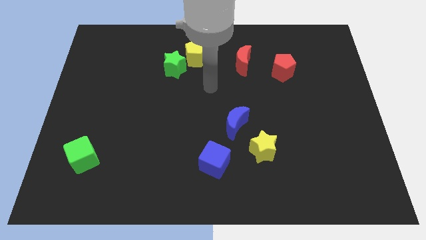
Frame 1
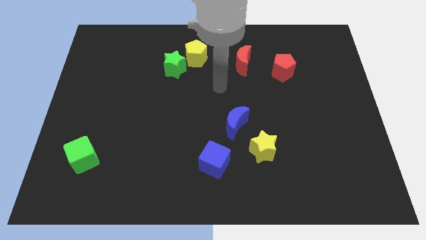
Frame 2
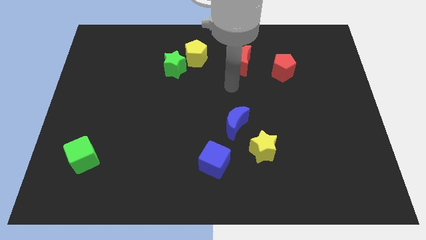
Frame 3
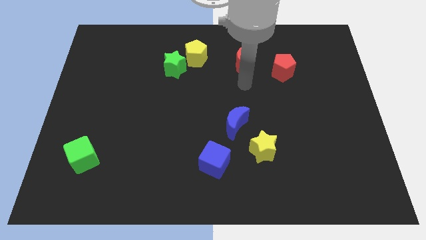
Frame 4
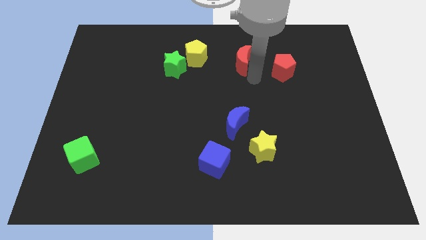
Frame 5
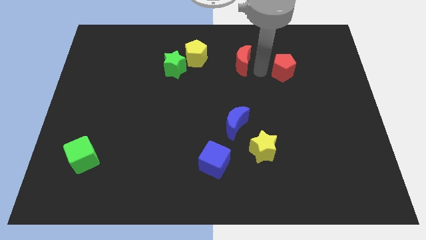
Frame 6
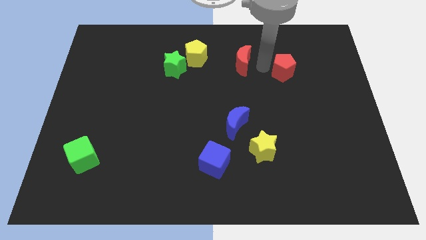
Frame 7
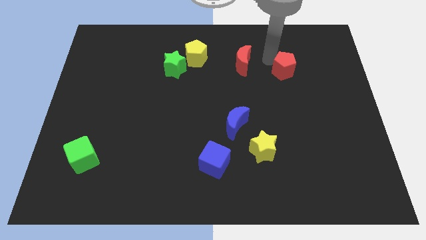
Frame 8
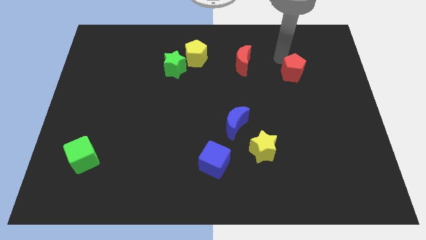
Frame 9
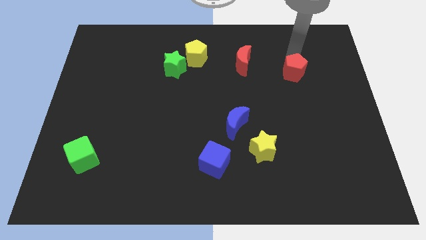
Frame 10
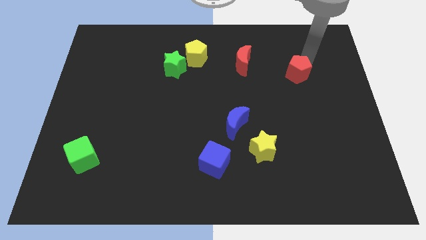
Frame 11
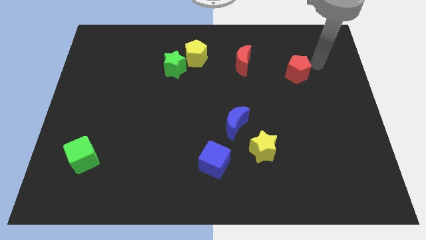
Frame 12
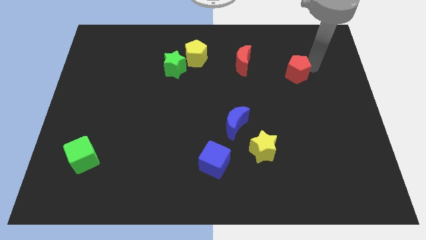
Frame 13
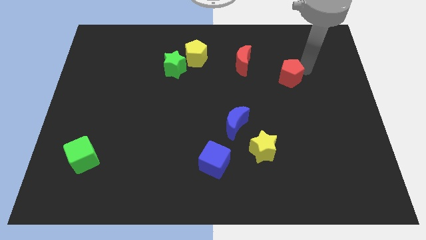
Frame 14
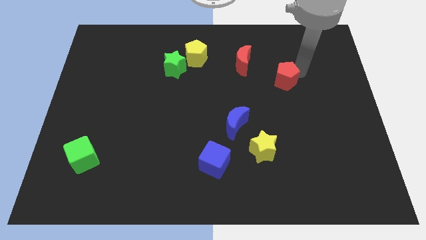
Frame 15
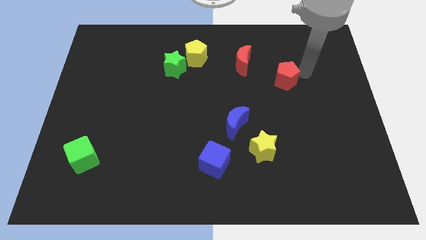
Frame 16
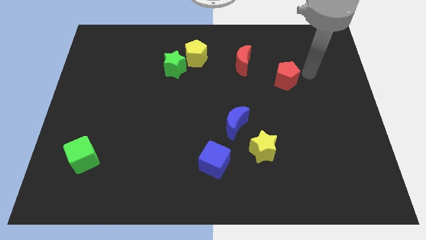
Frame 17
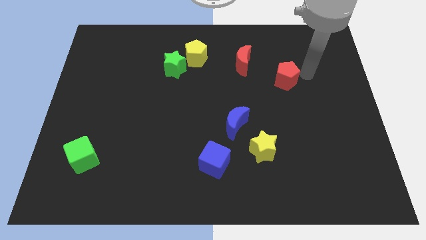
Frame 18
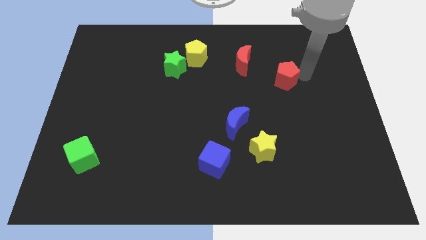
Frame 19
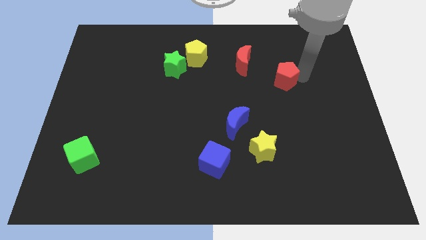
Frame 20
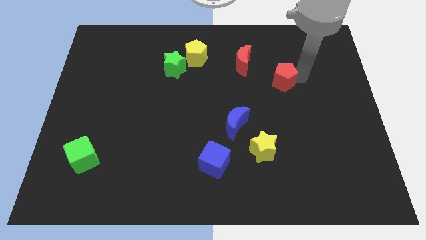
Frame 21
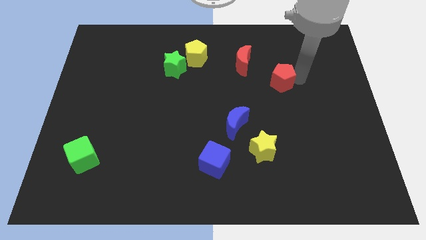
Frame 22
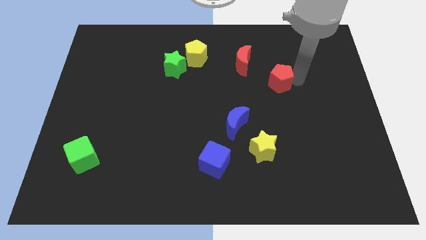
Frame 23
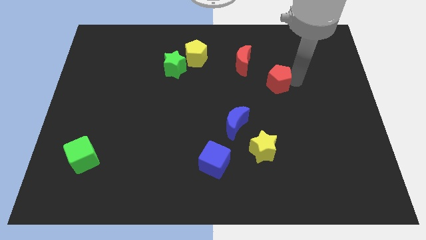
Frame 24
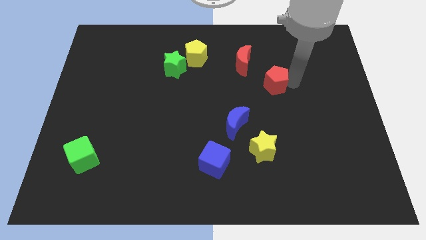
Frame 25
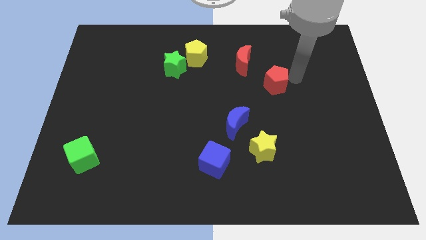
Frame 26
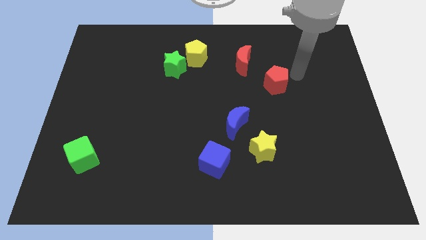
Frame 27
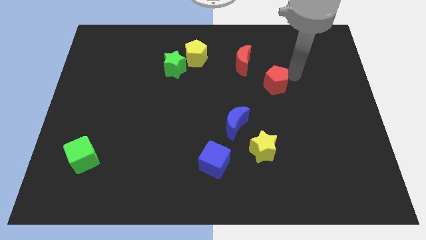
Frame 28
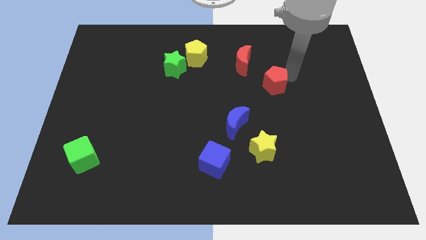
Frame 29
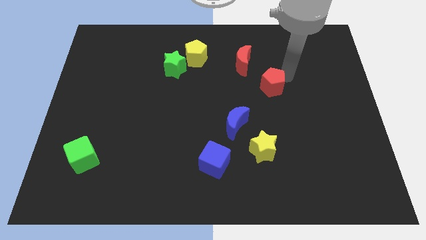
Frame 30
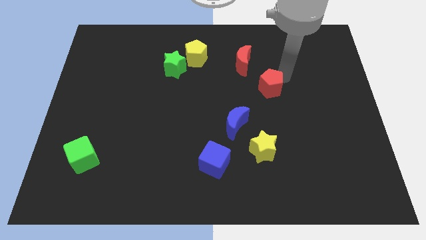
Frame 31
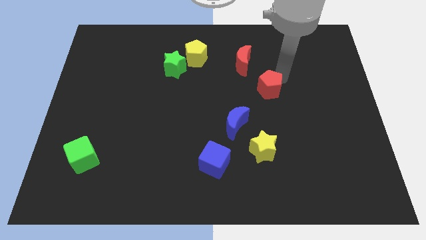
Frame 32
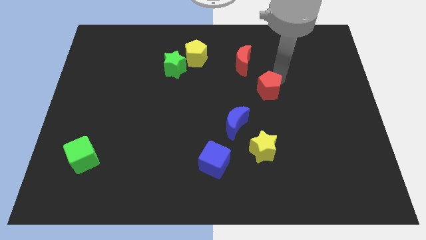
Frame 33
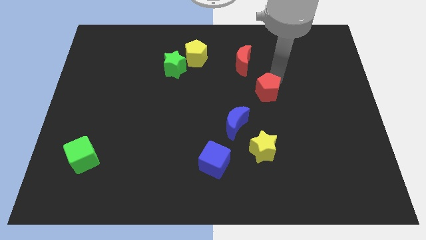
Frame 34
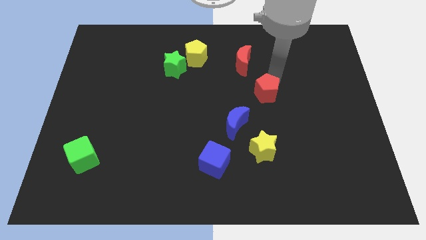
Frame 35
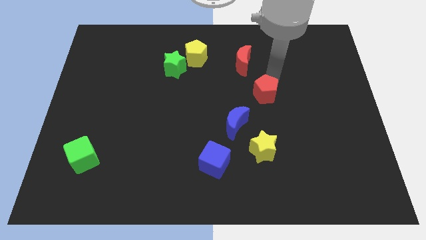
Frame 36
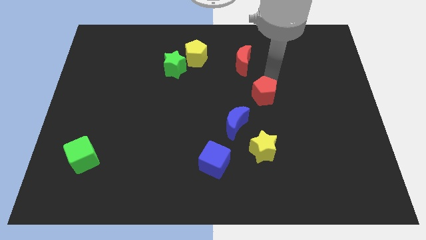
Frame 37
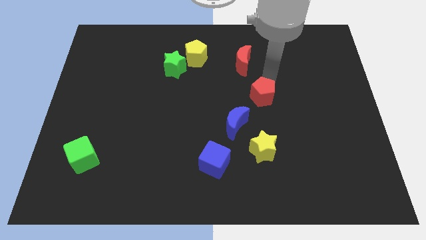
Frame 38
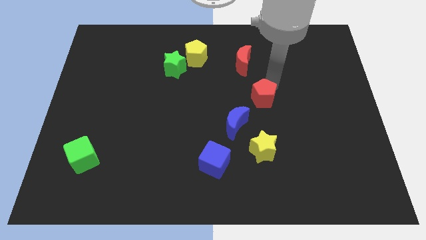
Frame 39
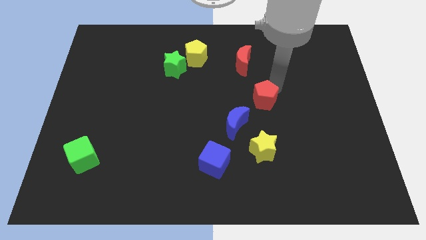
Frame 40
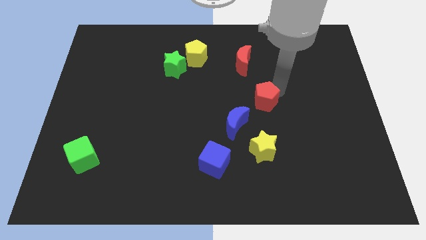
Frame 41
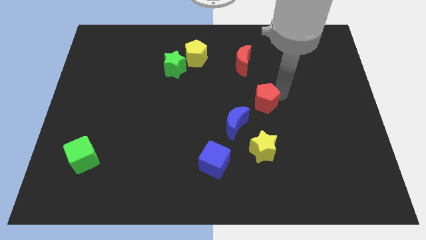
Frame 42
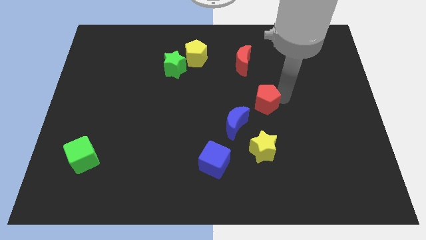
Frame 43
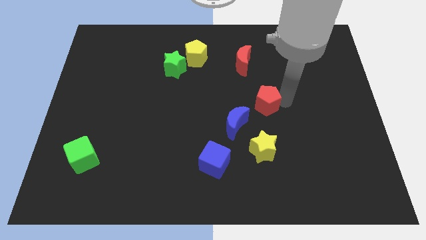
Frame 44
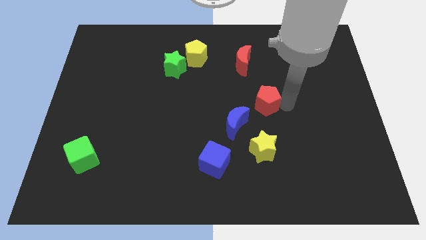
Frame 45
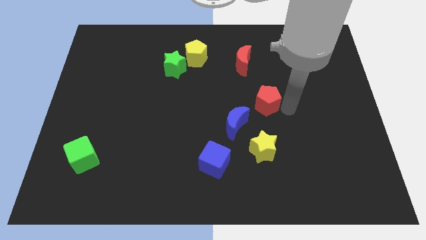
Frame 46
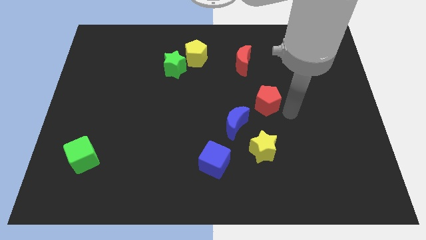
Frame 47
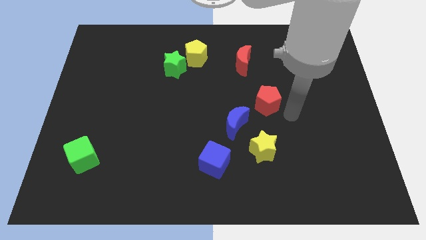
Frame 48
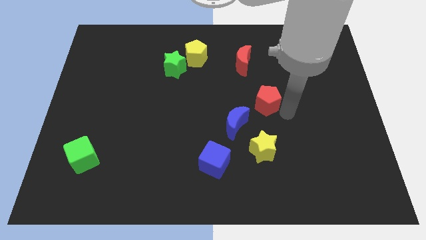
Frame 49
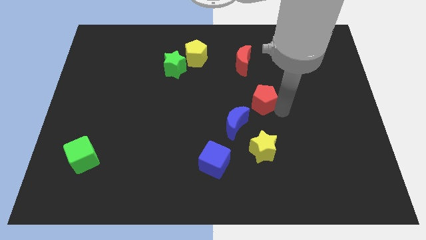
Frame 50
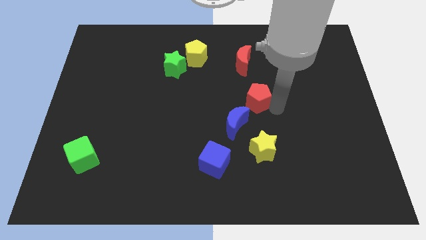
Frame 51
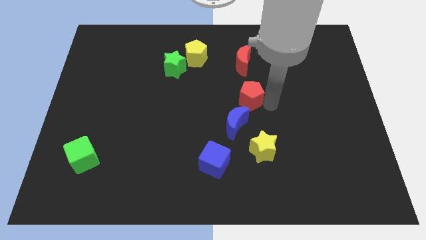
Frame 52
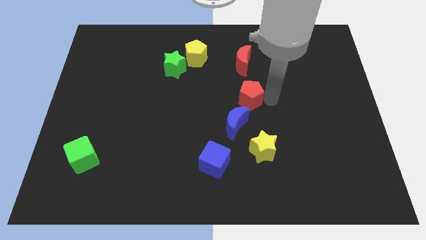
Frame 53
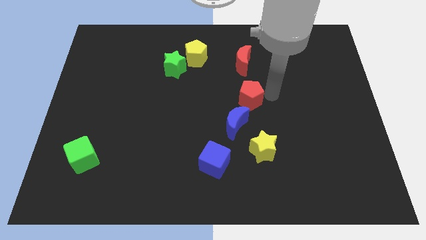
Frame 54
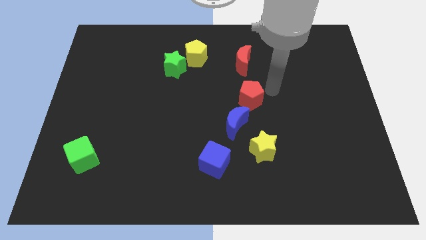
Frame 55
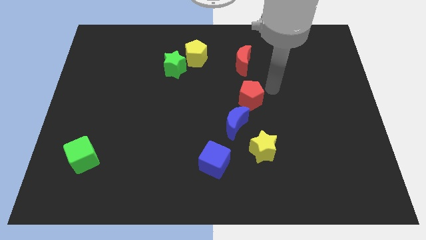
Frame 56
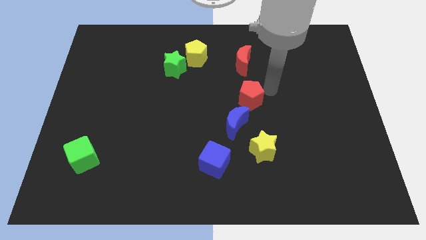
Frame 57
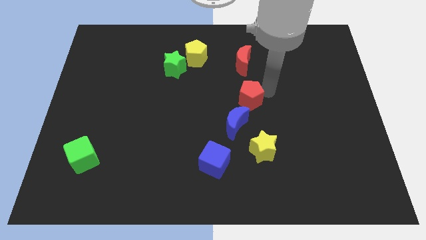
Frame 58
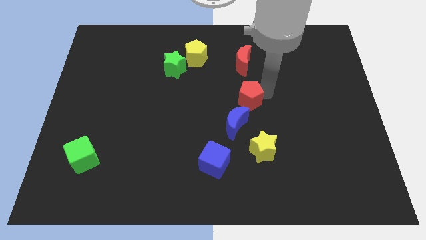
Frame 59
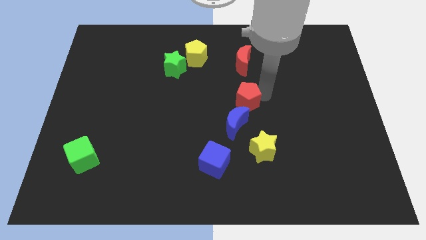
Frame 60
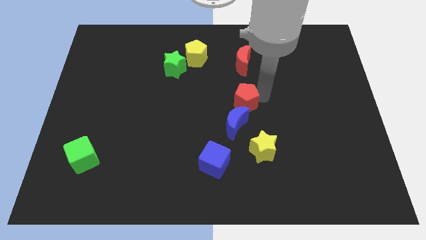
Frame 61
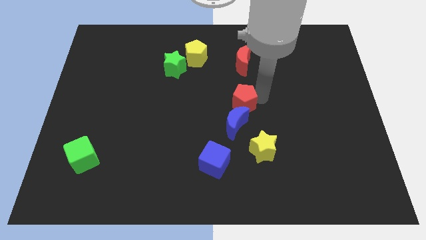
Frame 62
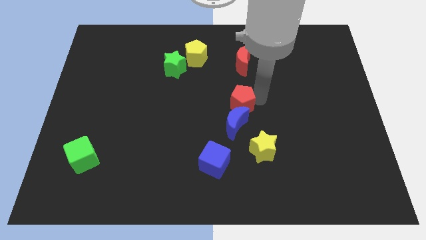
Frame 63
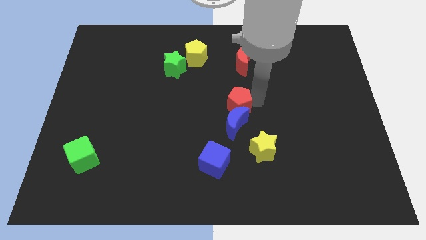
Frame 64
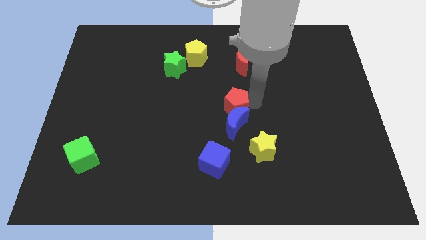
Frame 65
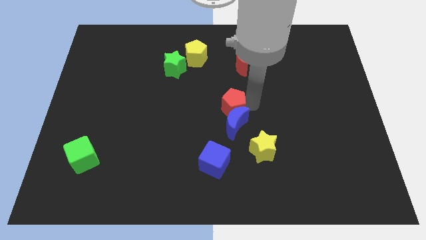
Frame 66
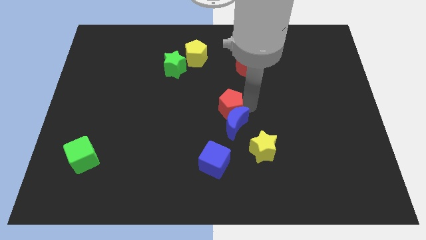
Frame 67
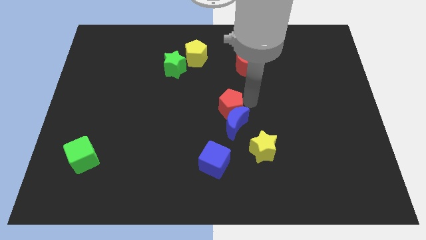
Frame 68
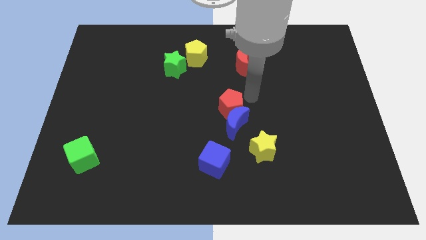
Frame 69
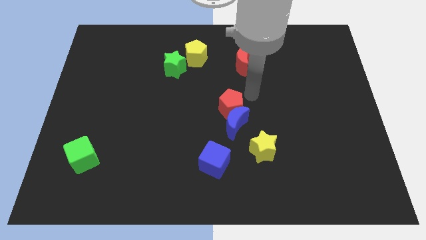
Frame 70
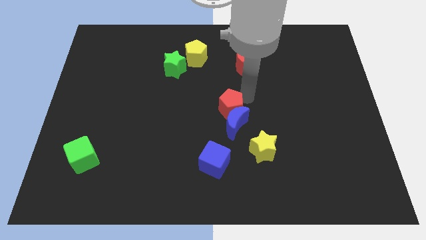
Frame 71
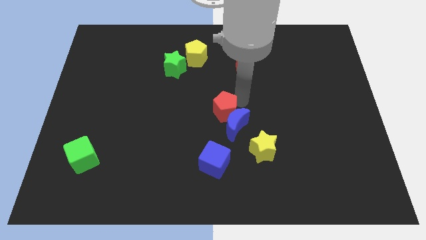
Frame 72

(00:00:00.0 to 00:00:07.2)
push the red pentagon diagonally down and left

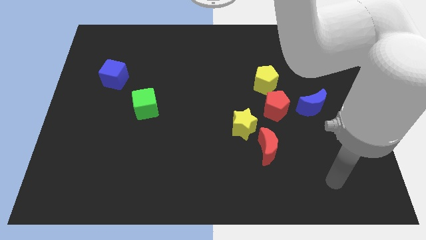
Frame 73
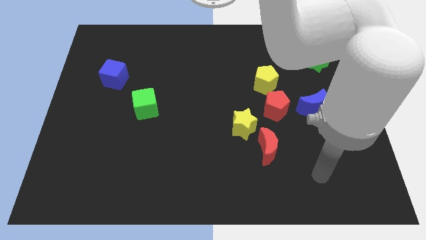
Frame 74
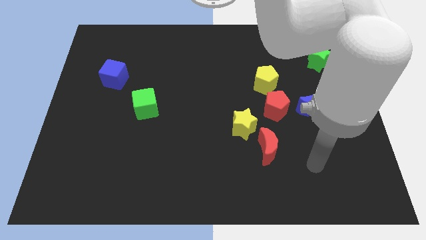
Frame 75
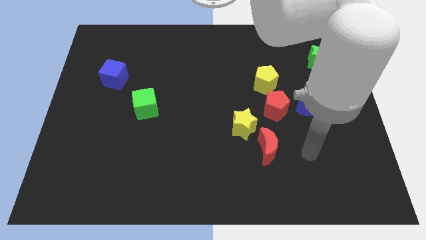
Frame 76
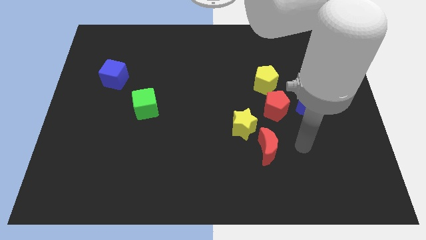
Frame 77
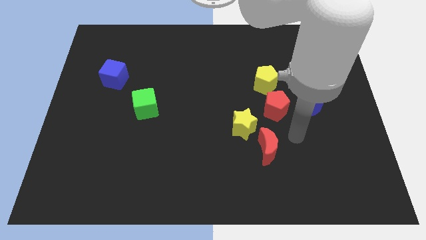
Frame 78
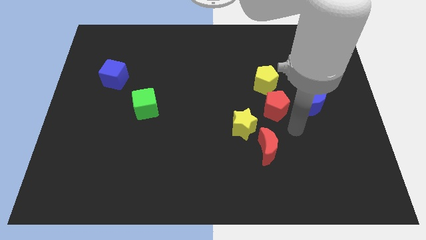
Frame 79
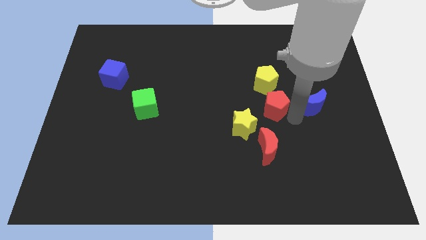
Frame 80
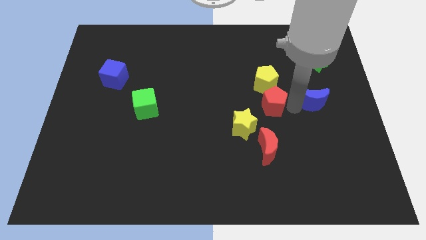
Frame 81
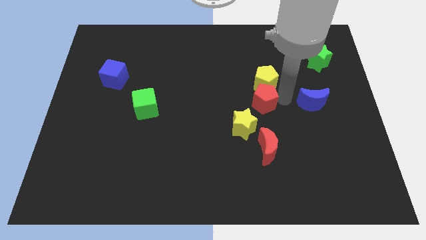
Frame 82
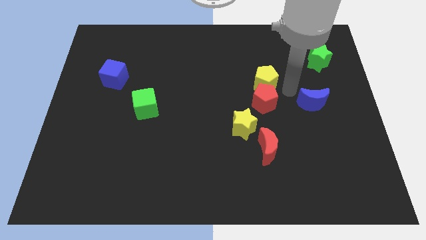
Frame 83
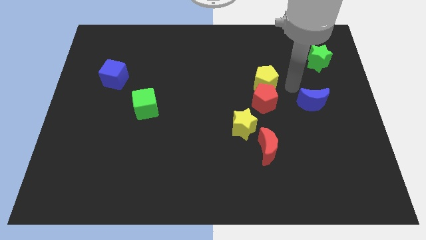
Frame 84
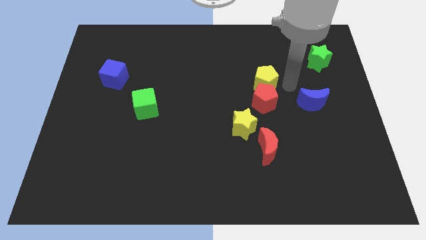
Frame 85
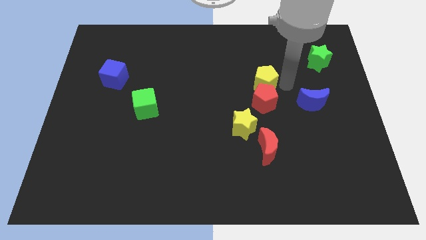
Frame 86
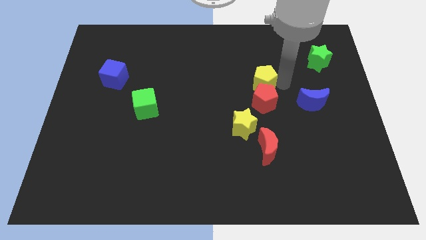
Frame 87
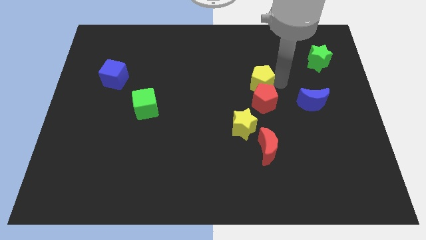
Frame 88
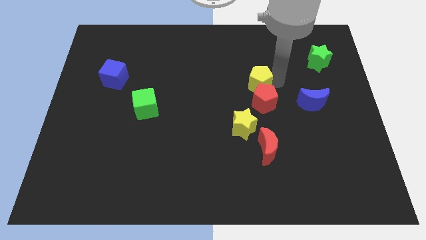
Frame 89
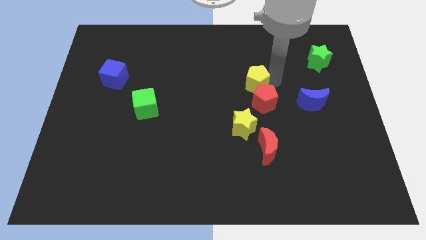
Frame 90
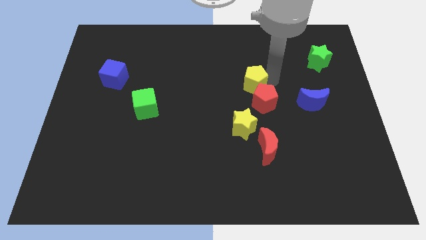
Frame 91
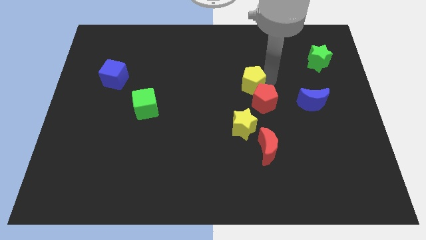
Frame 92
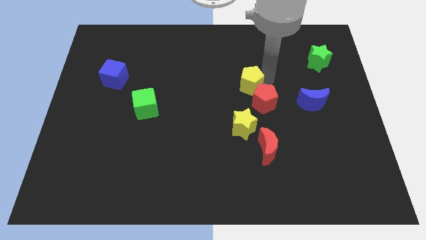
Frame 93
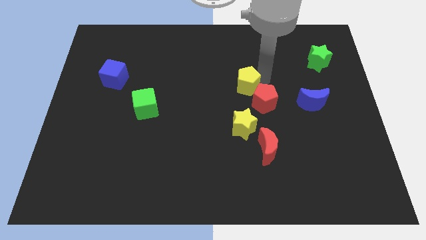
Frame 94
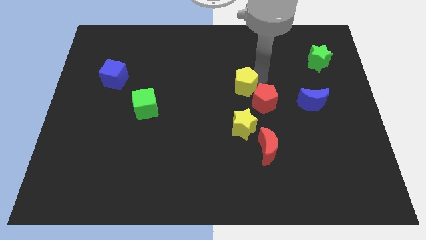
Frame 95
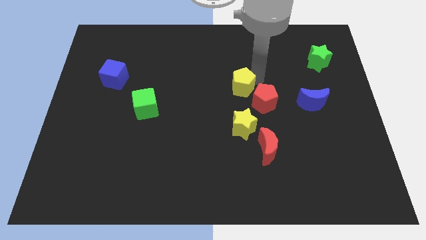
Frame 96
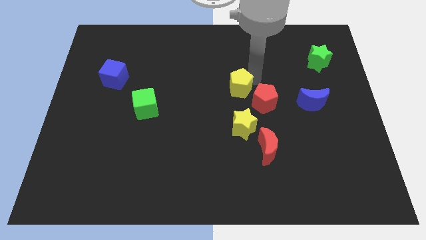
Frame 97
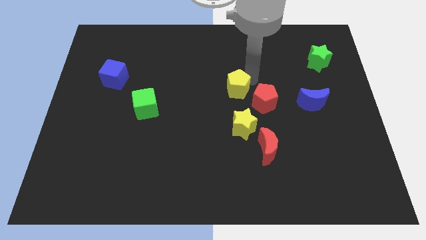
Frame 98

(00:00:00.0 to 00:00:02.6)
push the yellow pentagon to the left slightly
